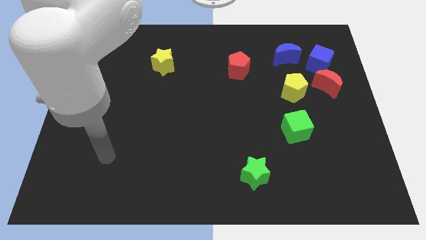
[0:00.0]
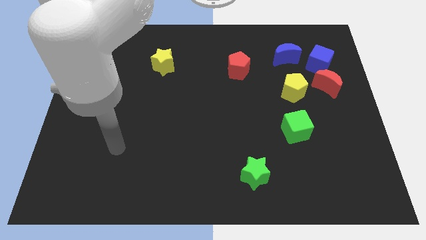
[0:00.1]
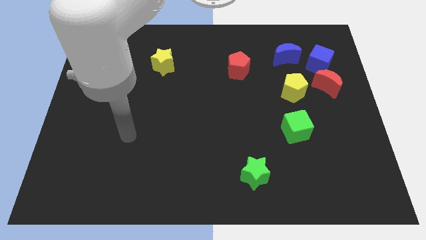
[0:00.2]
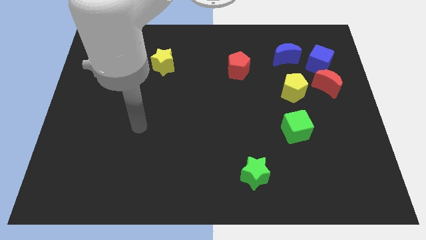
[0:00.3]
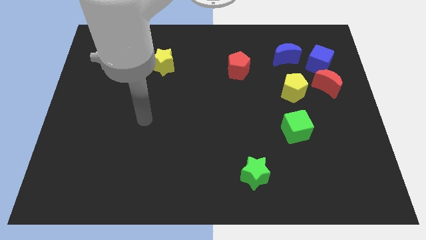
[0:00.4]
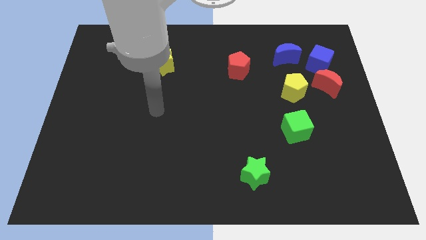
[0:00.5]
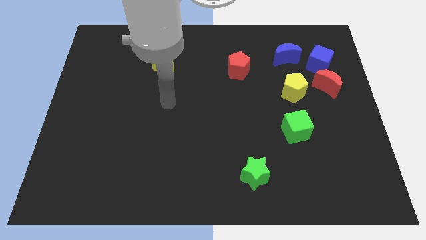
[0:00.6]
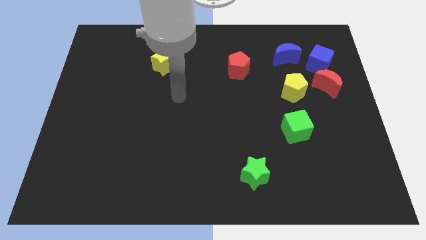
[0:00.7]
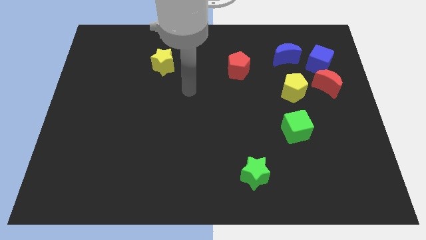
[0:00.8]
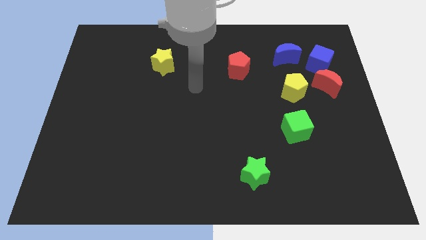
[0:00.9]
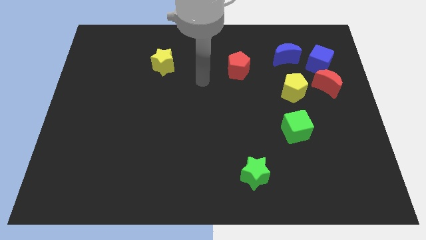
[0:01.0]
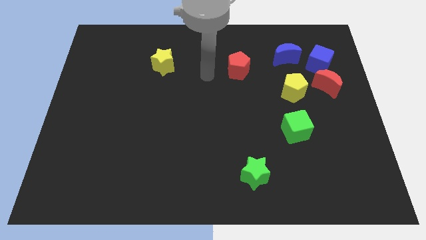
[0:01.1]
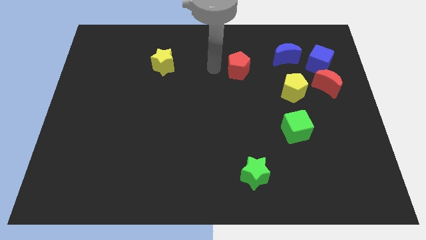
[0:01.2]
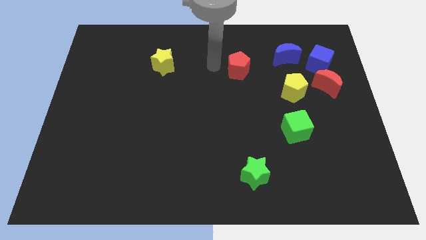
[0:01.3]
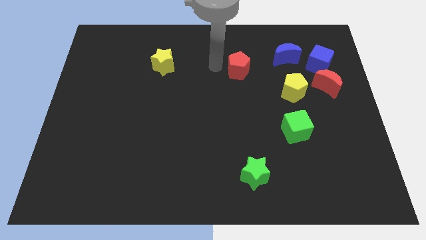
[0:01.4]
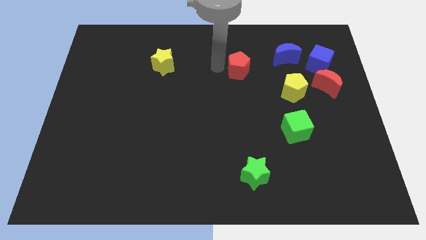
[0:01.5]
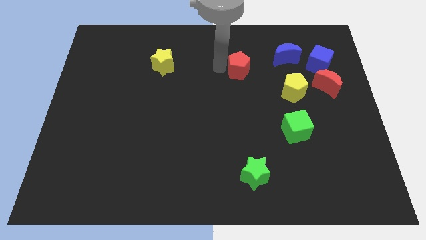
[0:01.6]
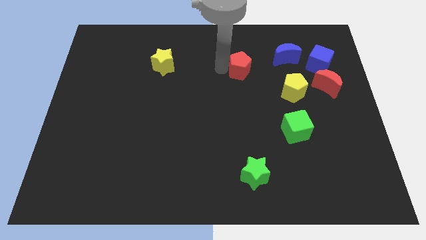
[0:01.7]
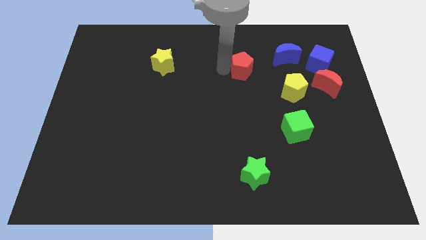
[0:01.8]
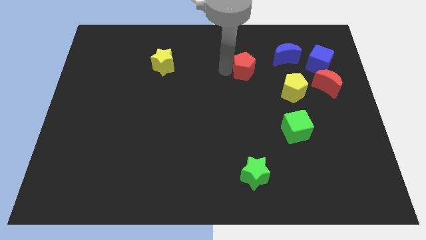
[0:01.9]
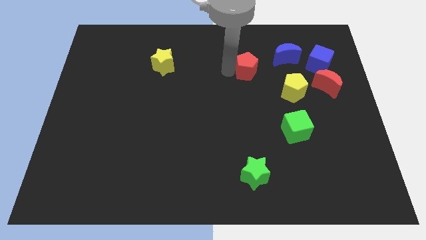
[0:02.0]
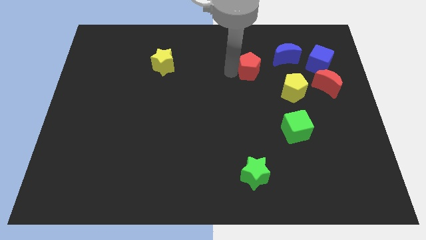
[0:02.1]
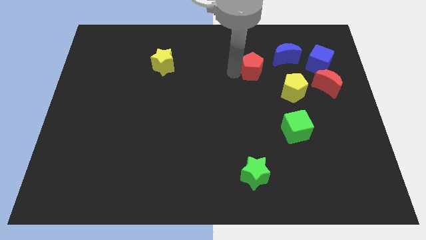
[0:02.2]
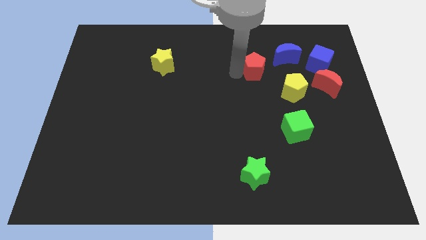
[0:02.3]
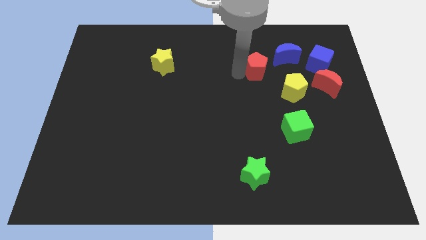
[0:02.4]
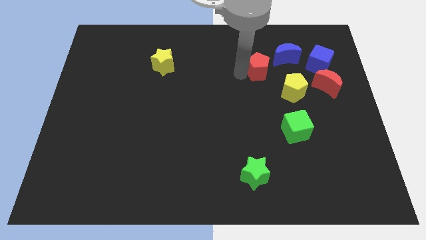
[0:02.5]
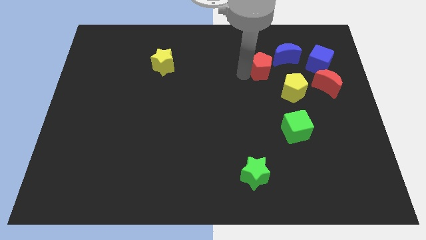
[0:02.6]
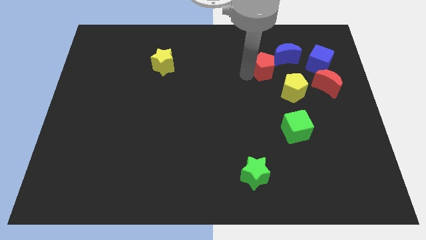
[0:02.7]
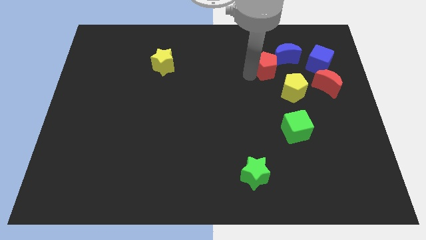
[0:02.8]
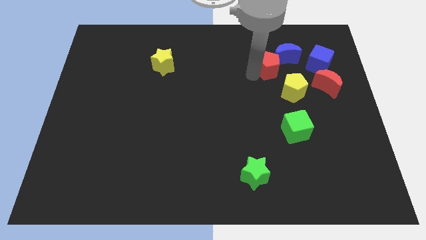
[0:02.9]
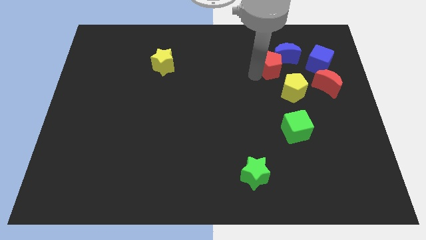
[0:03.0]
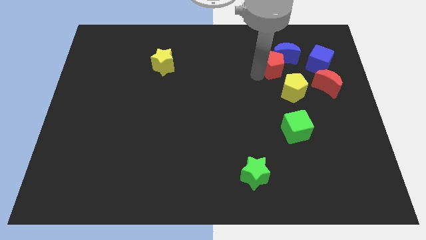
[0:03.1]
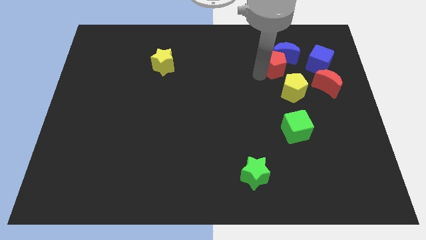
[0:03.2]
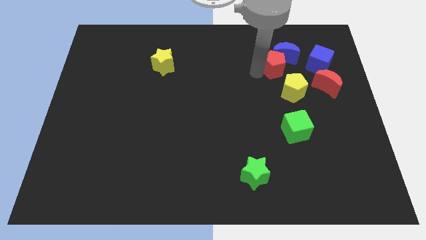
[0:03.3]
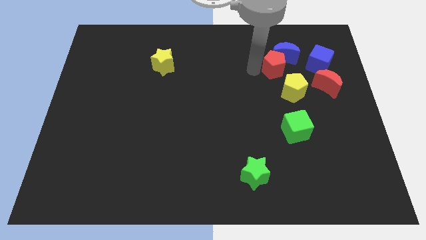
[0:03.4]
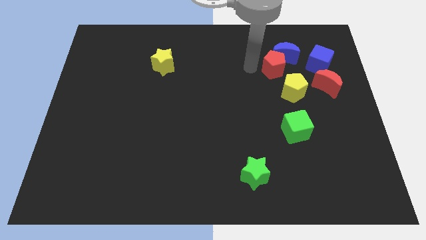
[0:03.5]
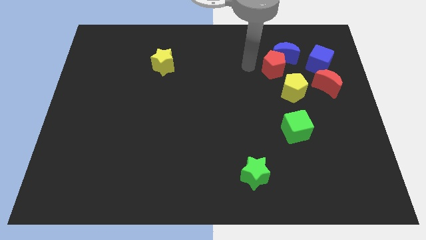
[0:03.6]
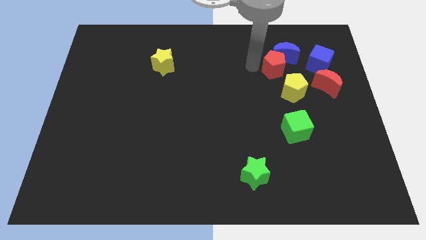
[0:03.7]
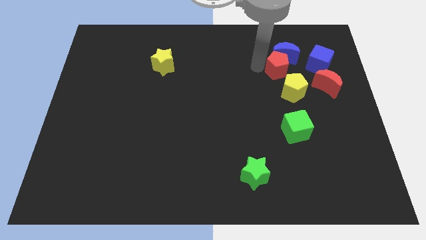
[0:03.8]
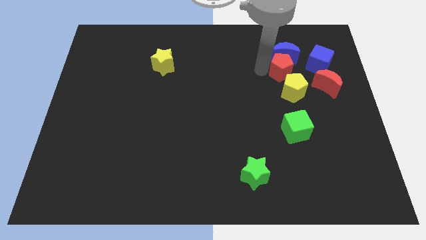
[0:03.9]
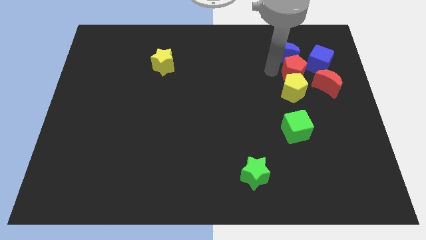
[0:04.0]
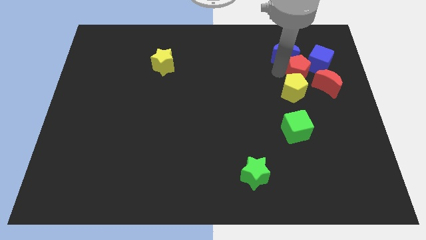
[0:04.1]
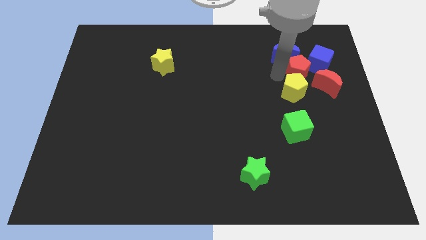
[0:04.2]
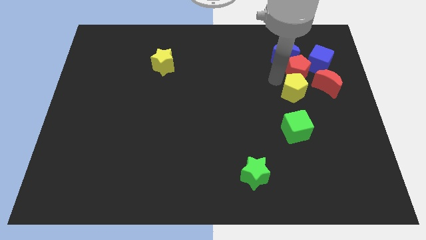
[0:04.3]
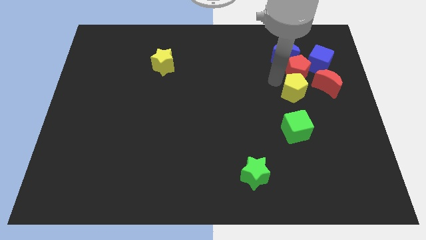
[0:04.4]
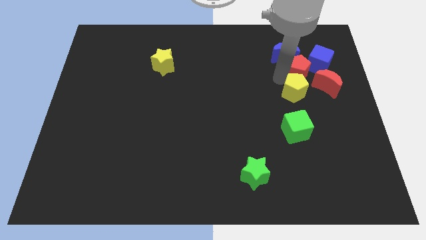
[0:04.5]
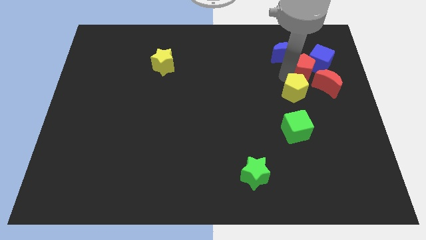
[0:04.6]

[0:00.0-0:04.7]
move the red pentagon next to the blue cube

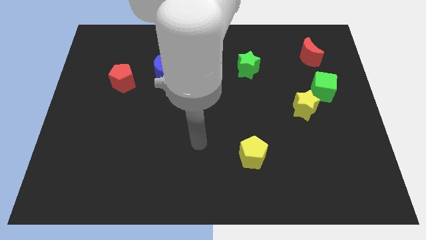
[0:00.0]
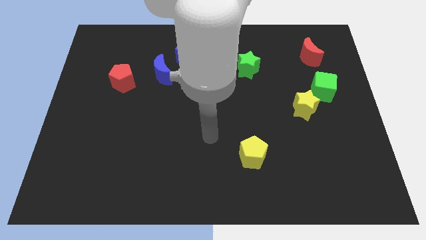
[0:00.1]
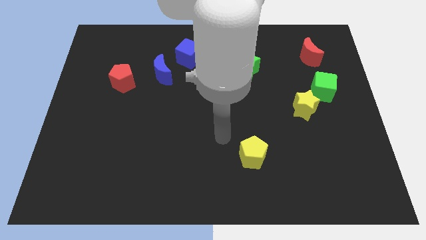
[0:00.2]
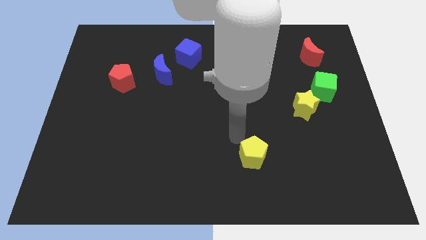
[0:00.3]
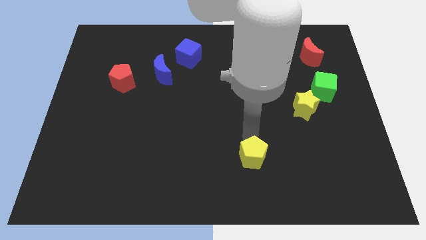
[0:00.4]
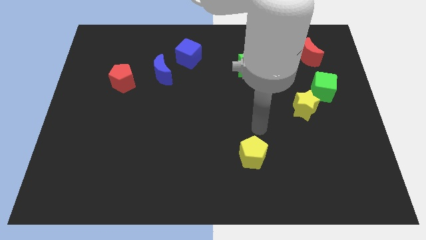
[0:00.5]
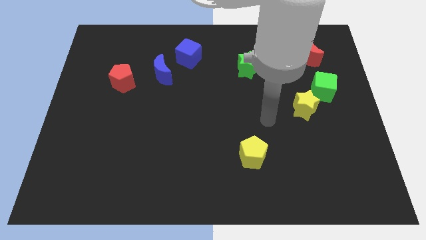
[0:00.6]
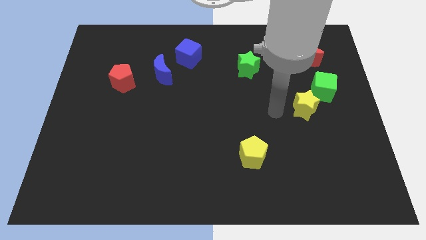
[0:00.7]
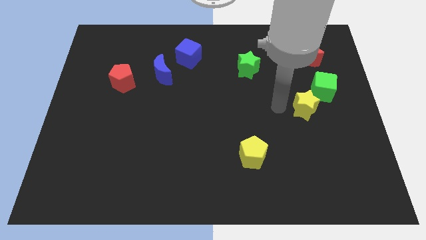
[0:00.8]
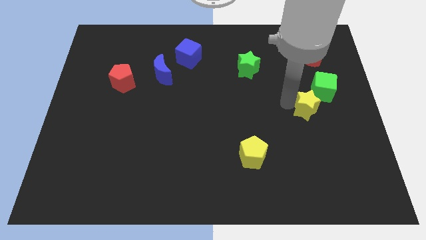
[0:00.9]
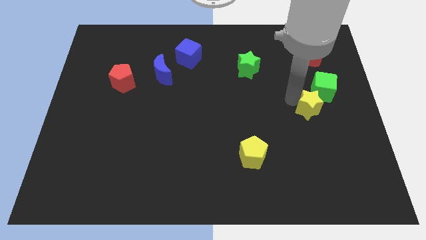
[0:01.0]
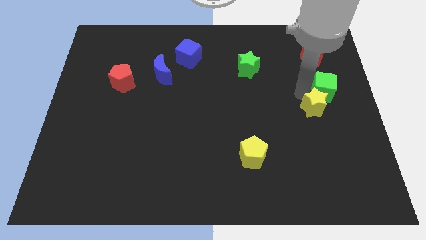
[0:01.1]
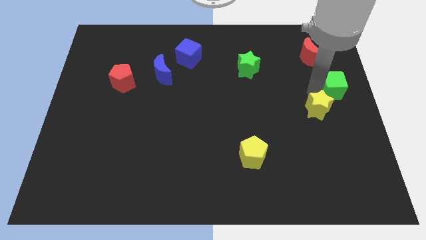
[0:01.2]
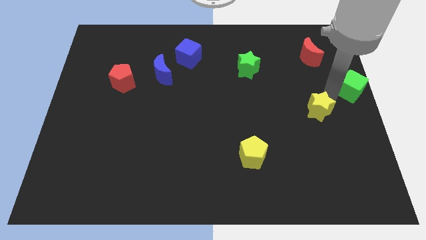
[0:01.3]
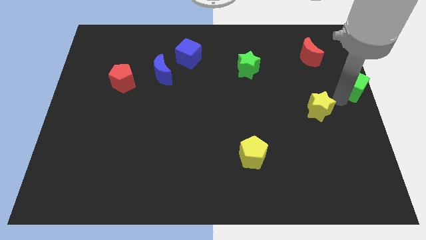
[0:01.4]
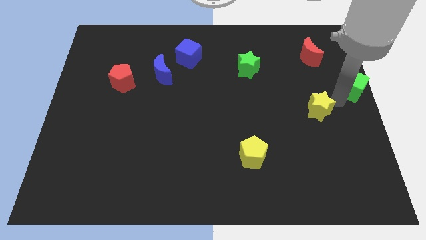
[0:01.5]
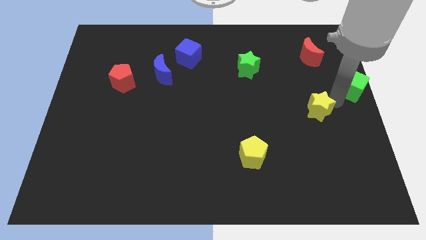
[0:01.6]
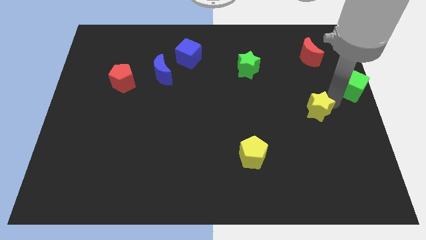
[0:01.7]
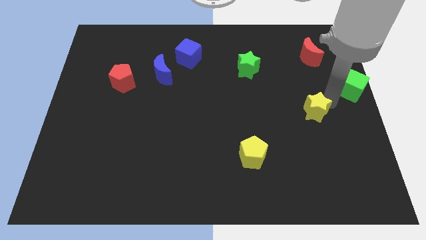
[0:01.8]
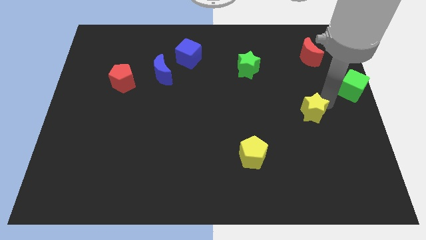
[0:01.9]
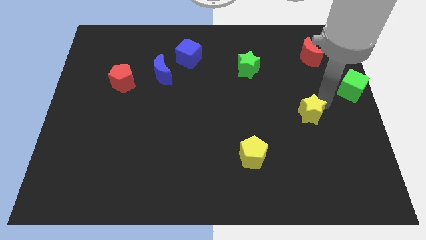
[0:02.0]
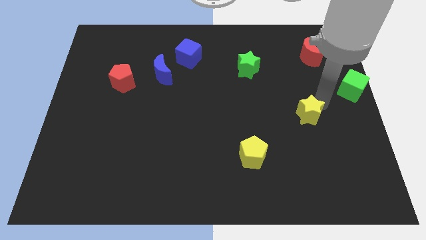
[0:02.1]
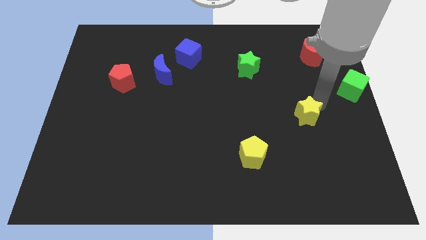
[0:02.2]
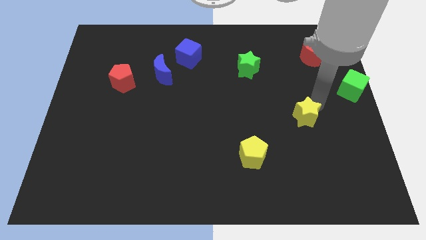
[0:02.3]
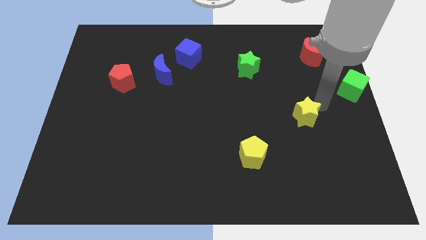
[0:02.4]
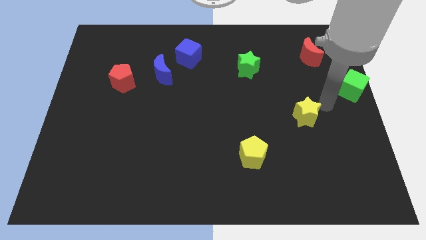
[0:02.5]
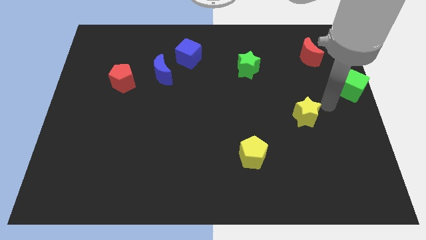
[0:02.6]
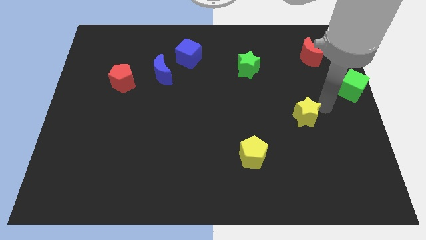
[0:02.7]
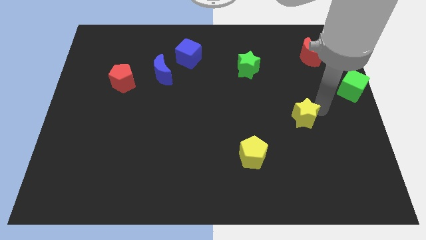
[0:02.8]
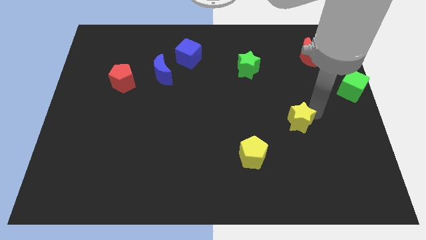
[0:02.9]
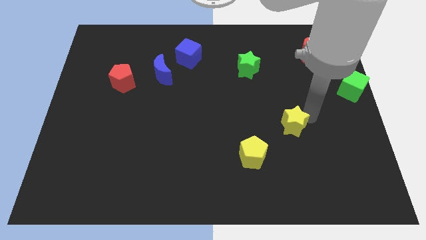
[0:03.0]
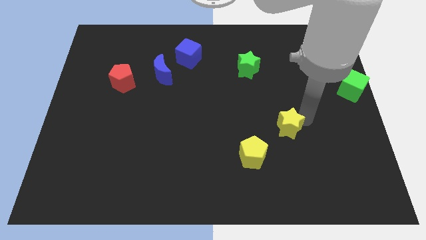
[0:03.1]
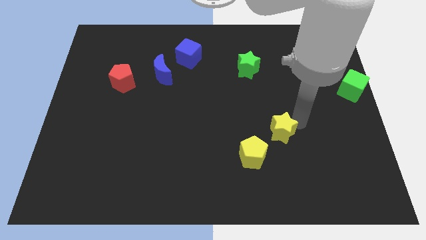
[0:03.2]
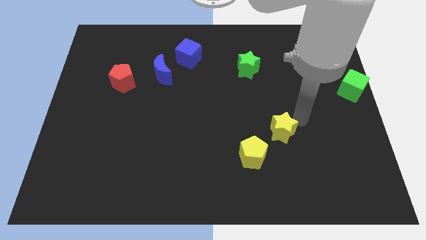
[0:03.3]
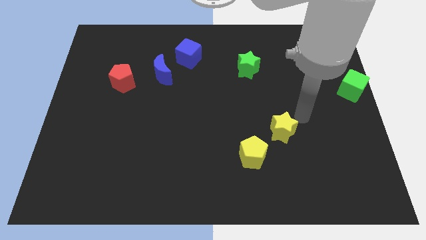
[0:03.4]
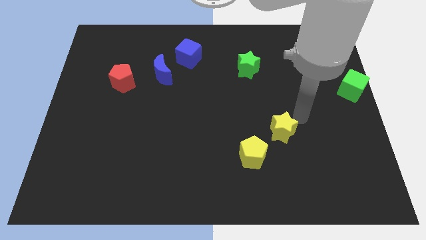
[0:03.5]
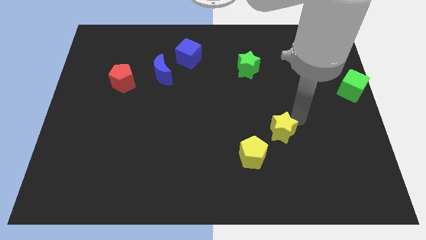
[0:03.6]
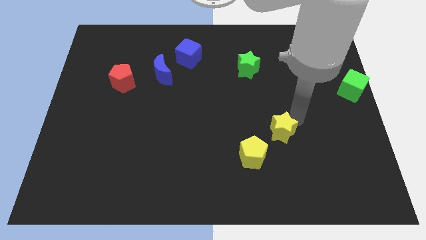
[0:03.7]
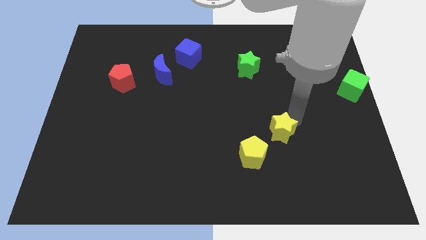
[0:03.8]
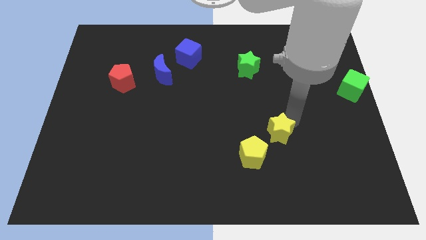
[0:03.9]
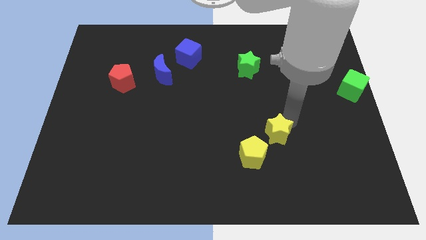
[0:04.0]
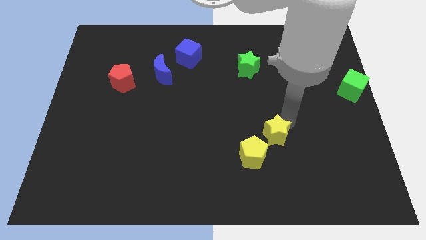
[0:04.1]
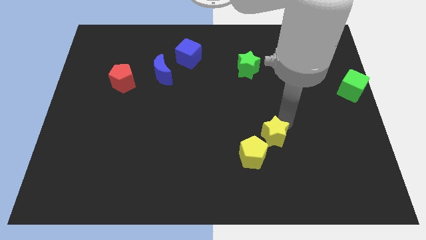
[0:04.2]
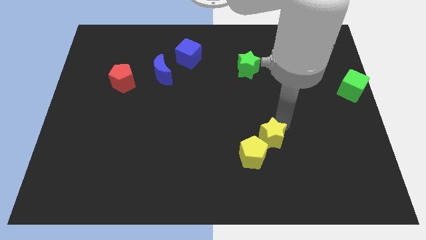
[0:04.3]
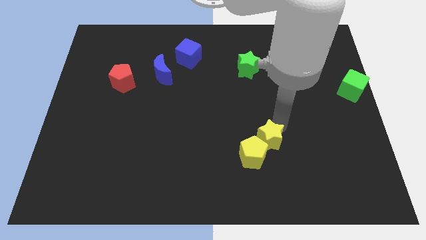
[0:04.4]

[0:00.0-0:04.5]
slide the yellow star to the yellow pentagon
